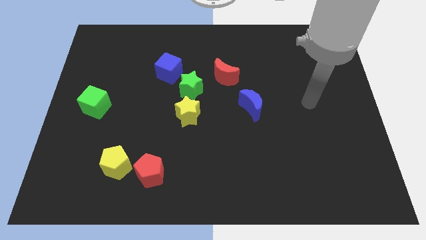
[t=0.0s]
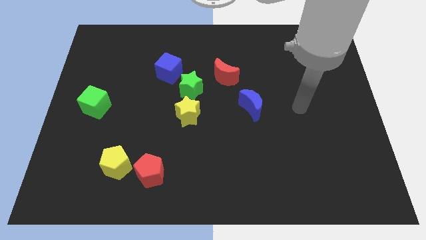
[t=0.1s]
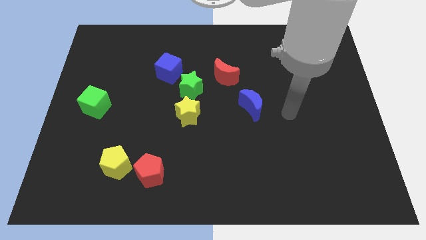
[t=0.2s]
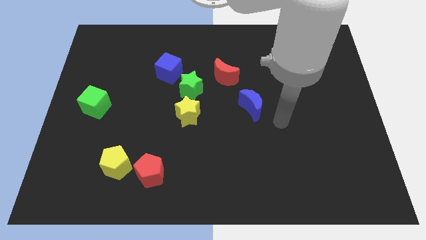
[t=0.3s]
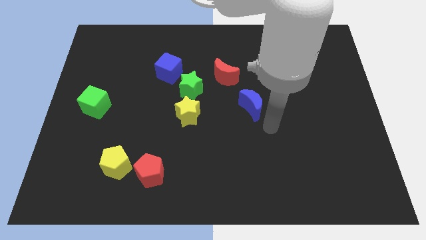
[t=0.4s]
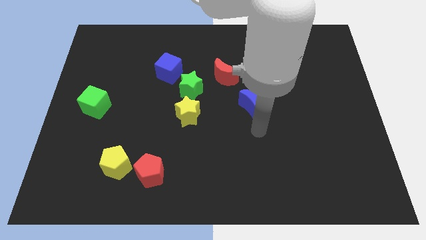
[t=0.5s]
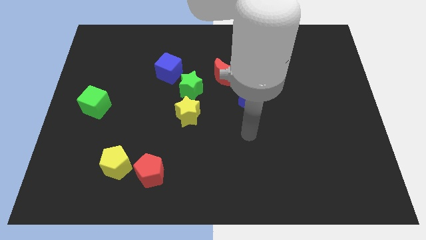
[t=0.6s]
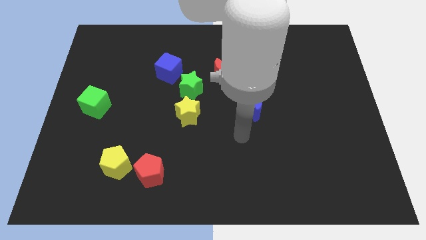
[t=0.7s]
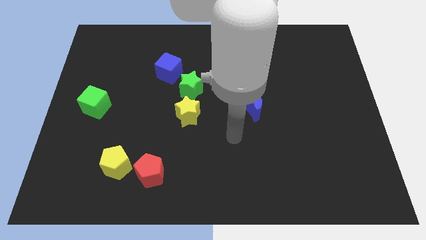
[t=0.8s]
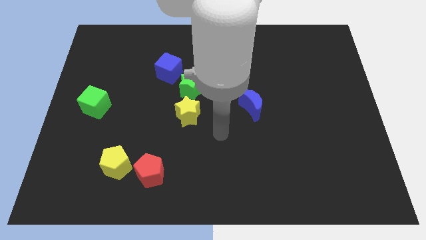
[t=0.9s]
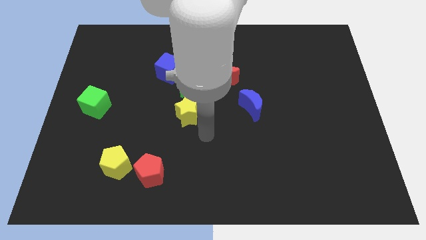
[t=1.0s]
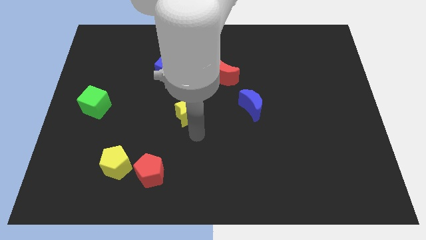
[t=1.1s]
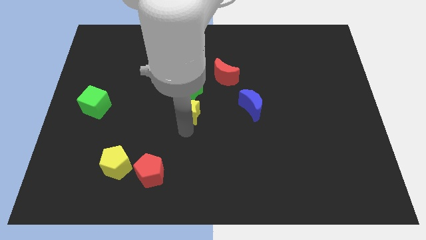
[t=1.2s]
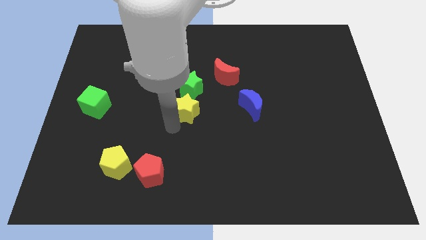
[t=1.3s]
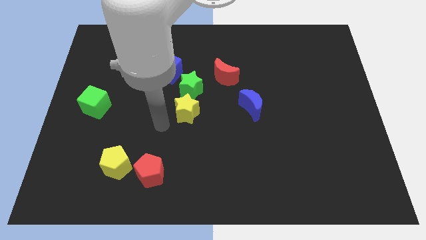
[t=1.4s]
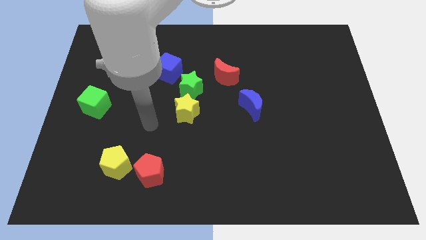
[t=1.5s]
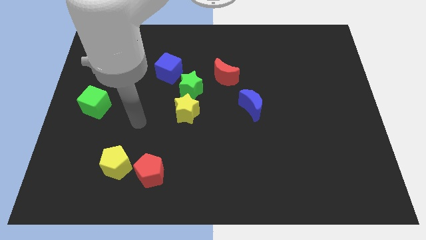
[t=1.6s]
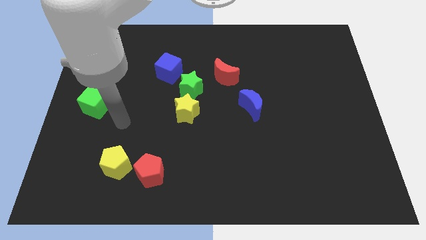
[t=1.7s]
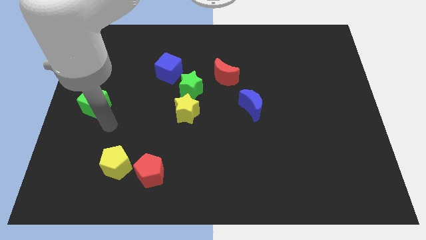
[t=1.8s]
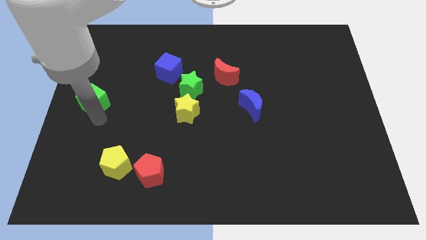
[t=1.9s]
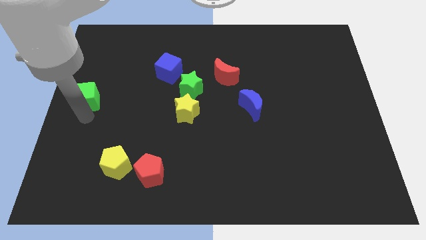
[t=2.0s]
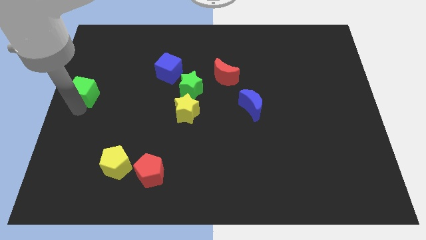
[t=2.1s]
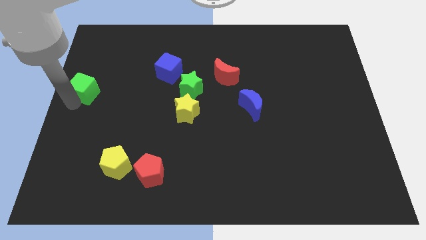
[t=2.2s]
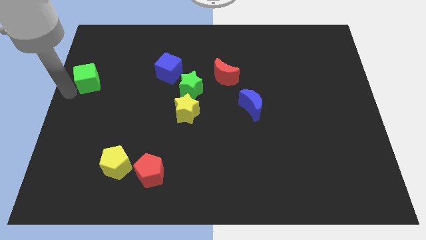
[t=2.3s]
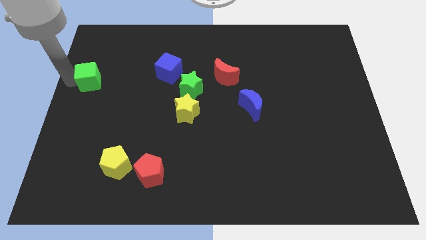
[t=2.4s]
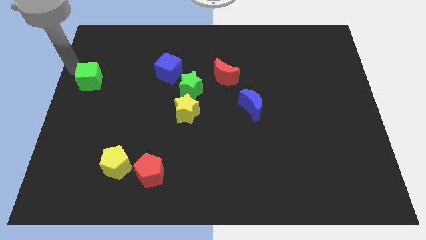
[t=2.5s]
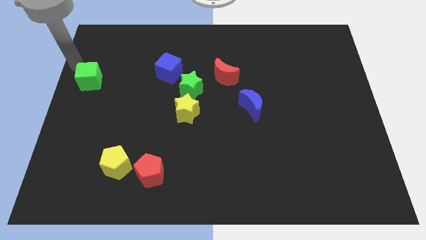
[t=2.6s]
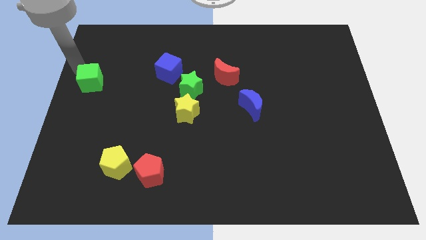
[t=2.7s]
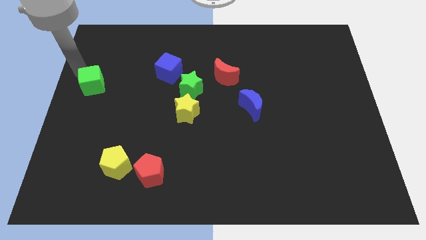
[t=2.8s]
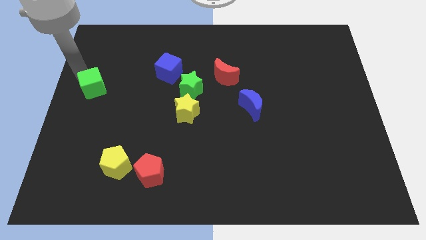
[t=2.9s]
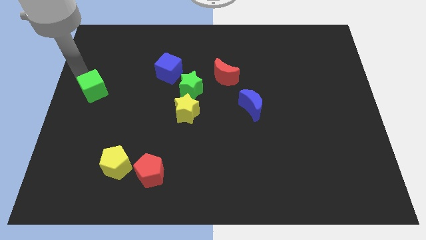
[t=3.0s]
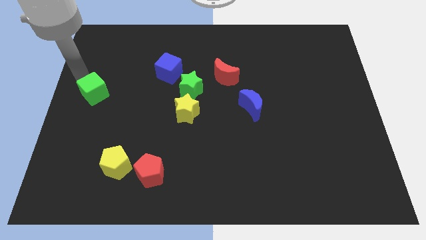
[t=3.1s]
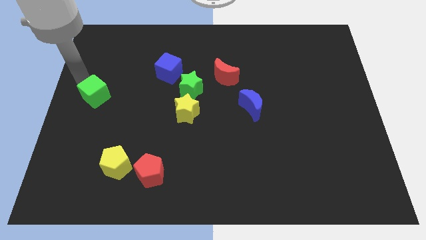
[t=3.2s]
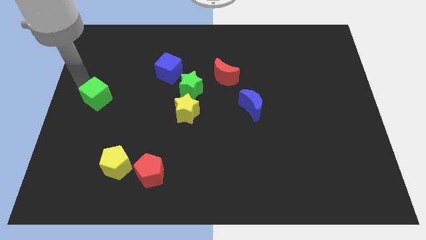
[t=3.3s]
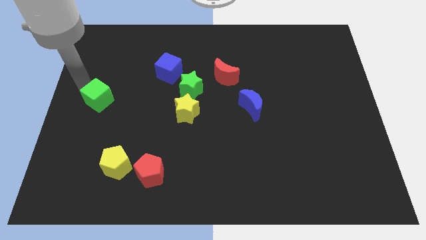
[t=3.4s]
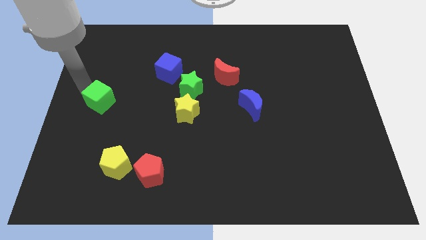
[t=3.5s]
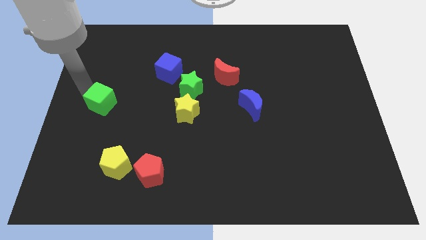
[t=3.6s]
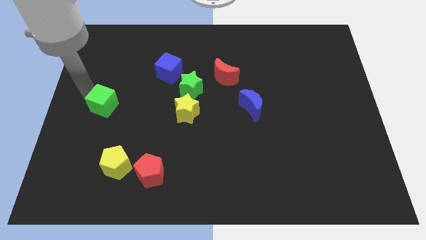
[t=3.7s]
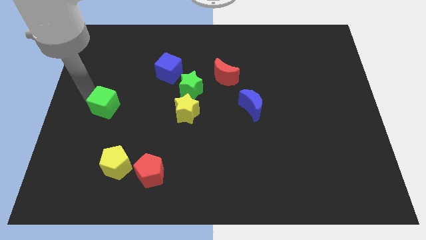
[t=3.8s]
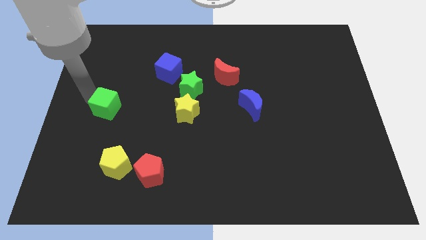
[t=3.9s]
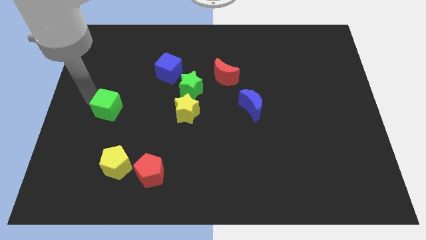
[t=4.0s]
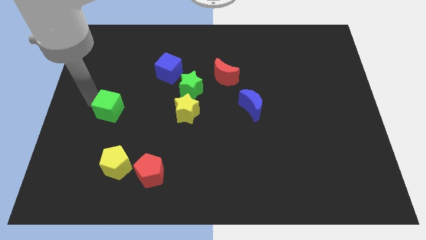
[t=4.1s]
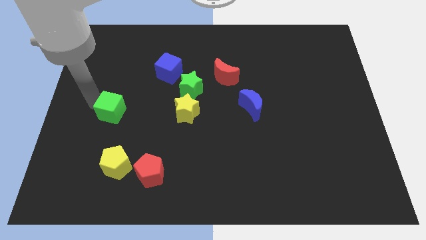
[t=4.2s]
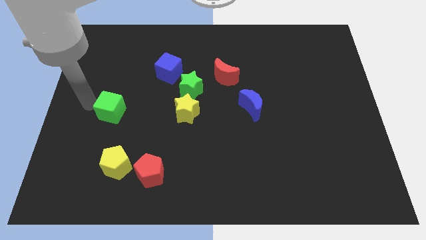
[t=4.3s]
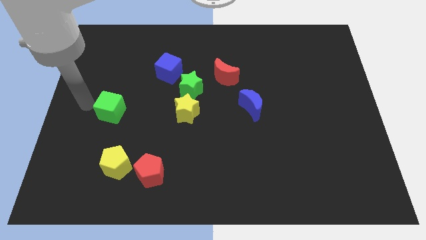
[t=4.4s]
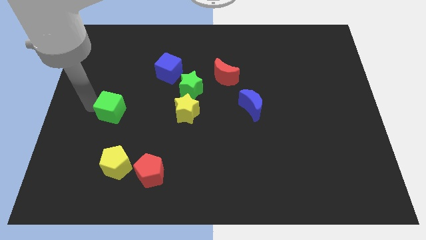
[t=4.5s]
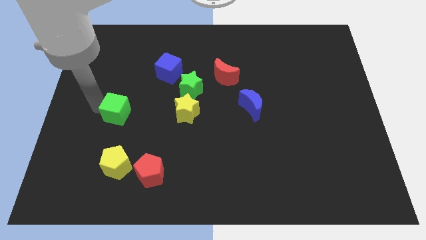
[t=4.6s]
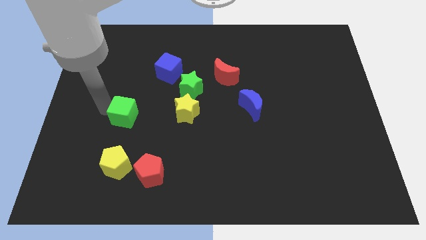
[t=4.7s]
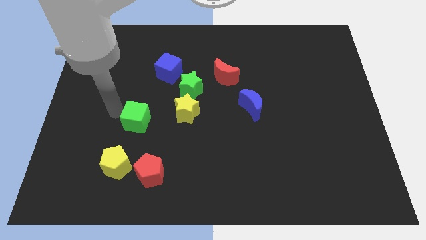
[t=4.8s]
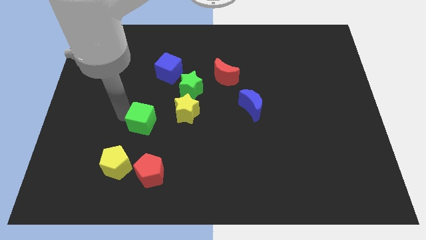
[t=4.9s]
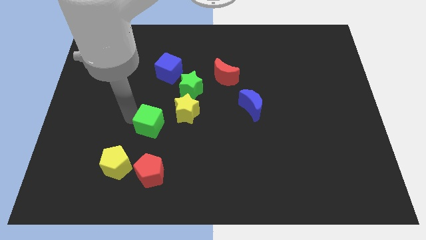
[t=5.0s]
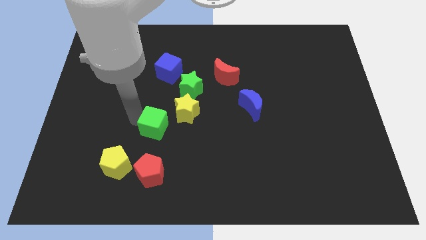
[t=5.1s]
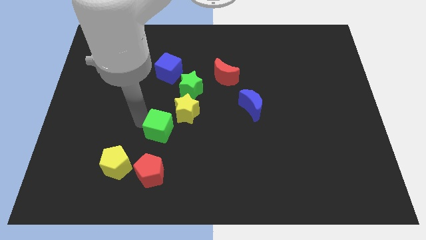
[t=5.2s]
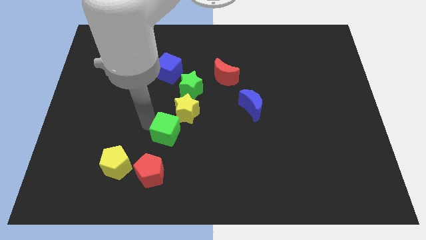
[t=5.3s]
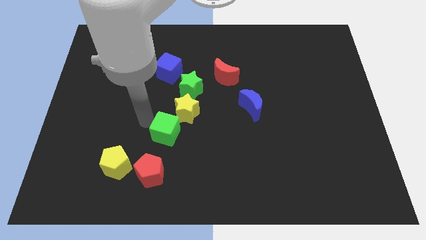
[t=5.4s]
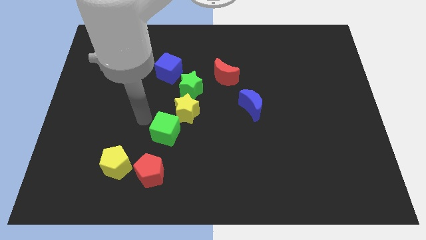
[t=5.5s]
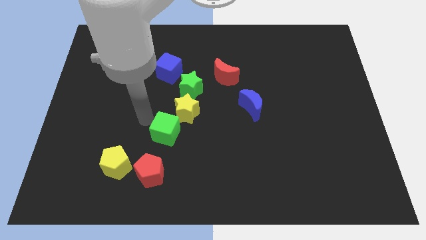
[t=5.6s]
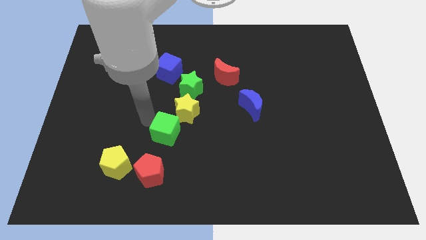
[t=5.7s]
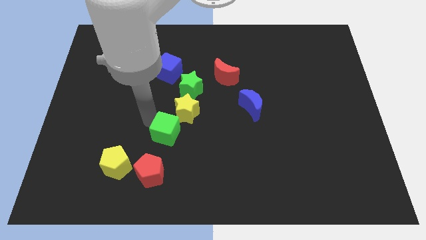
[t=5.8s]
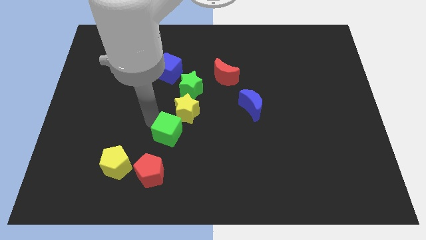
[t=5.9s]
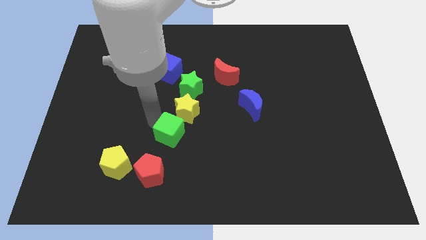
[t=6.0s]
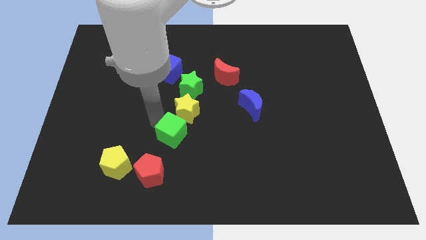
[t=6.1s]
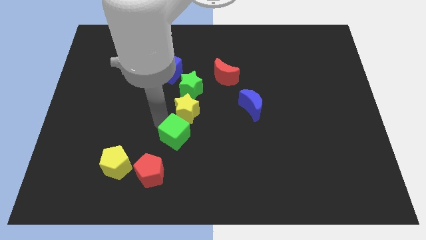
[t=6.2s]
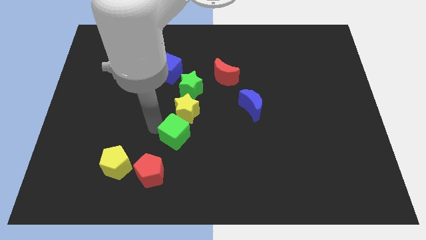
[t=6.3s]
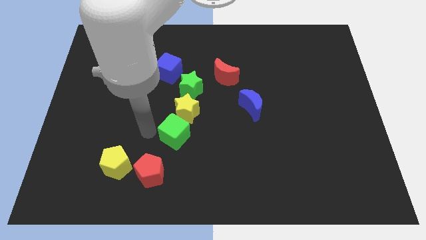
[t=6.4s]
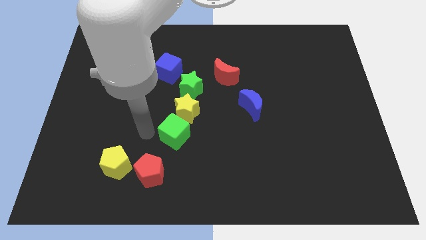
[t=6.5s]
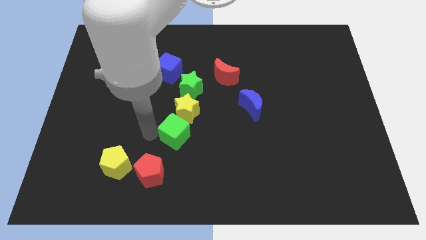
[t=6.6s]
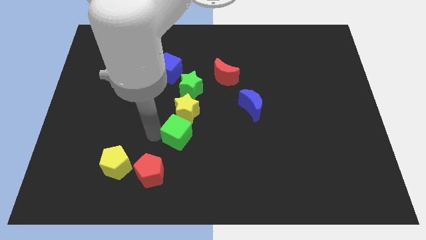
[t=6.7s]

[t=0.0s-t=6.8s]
put the green cube to the middle
